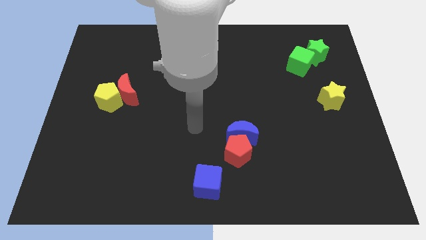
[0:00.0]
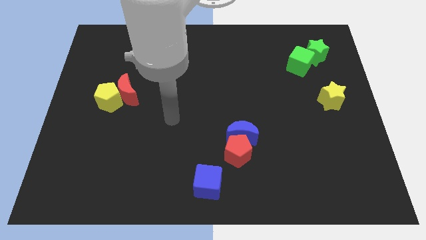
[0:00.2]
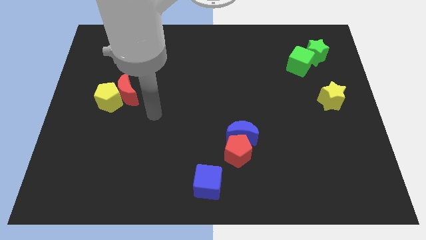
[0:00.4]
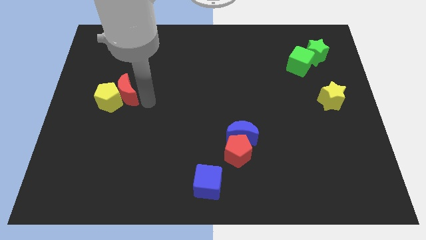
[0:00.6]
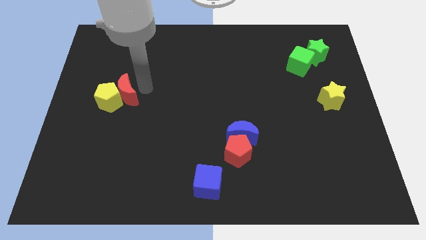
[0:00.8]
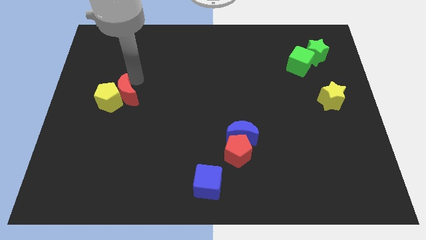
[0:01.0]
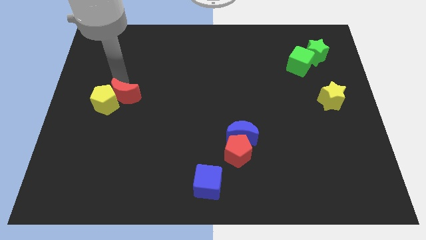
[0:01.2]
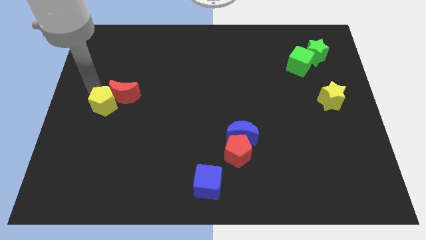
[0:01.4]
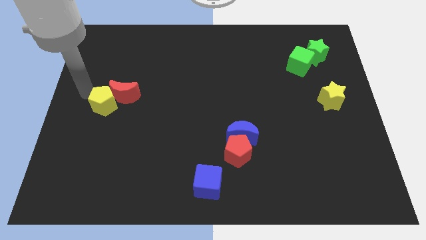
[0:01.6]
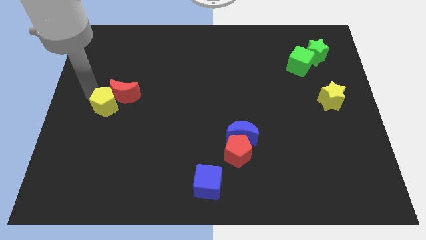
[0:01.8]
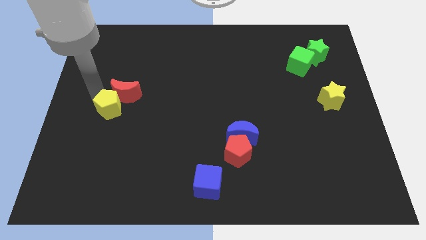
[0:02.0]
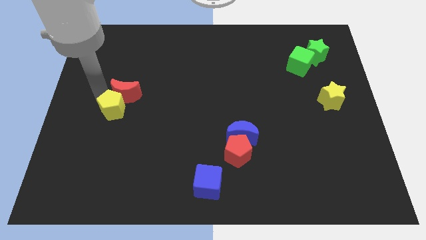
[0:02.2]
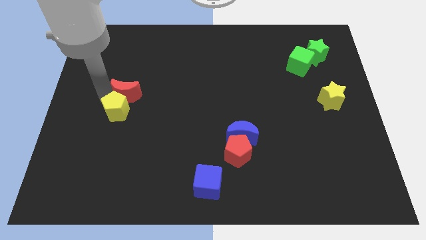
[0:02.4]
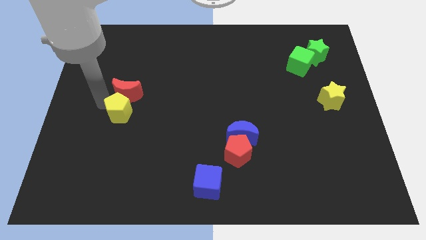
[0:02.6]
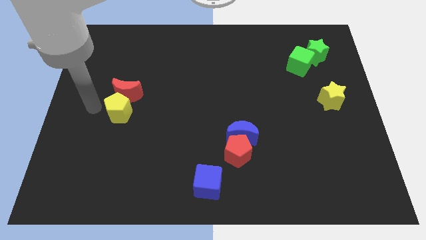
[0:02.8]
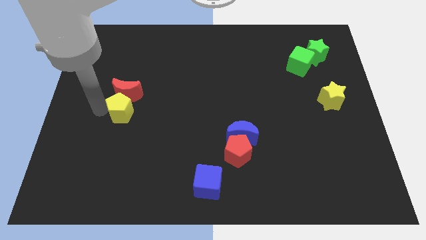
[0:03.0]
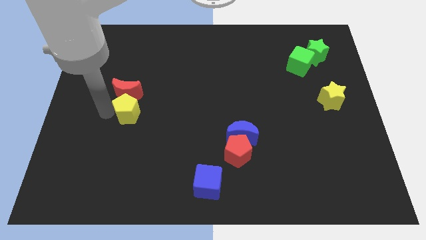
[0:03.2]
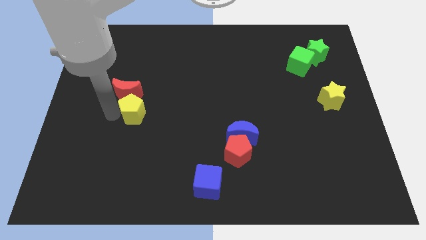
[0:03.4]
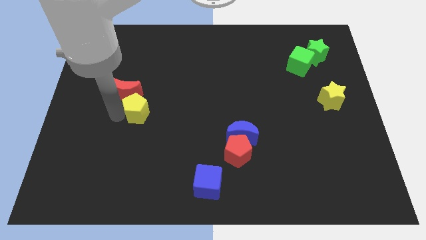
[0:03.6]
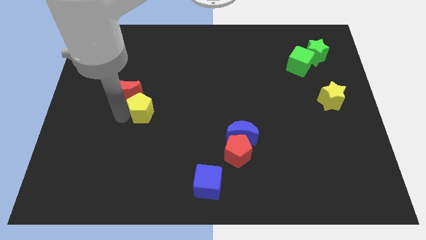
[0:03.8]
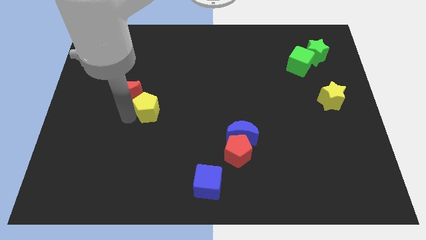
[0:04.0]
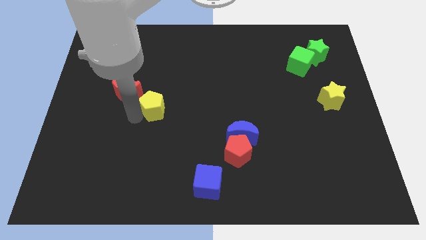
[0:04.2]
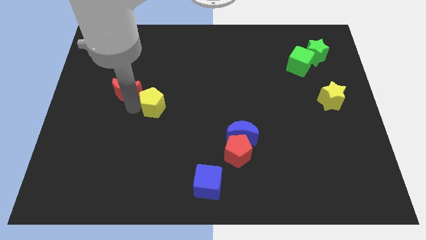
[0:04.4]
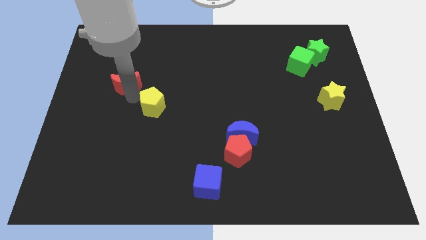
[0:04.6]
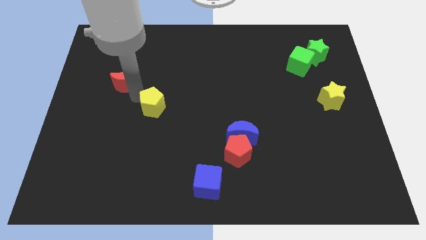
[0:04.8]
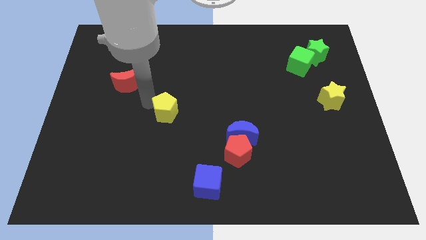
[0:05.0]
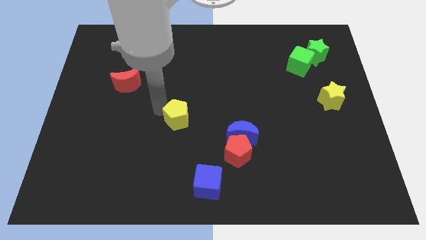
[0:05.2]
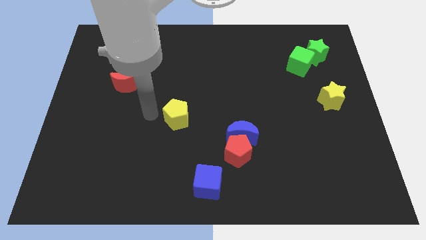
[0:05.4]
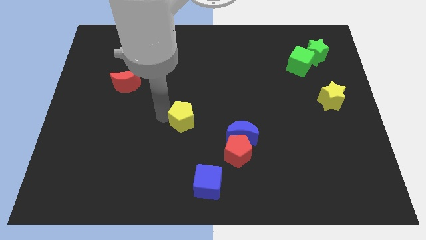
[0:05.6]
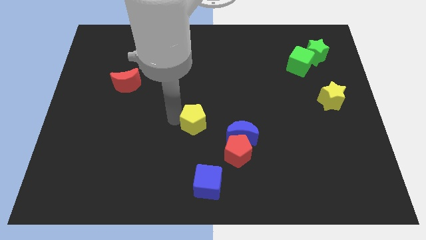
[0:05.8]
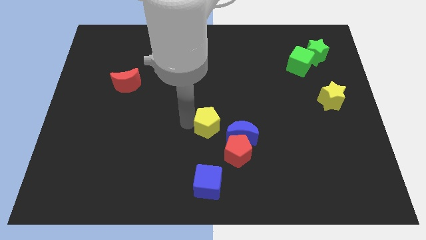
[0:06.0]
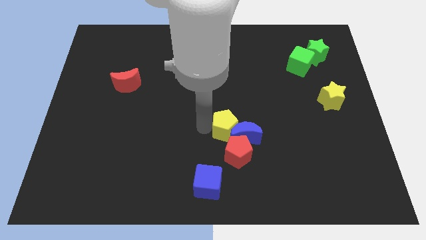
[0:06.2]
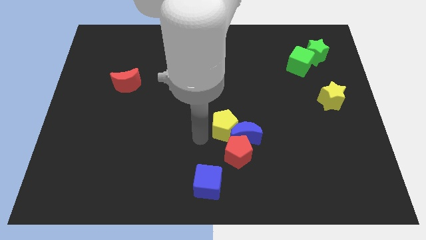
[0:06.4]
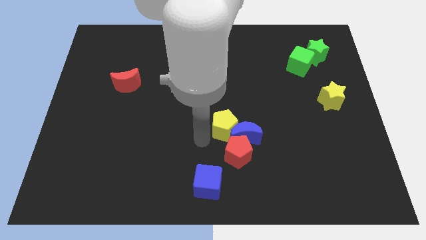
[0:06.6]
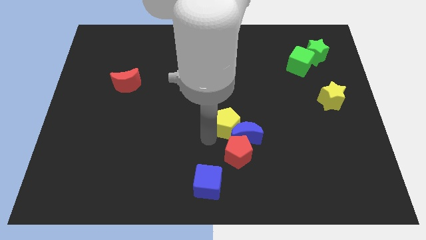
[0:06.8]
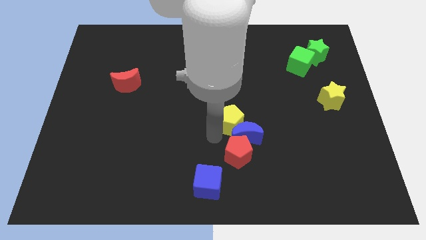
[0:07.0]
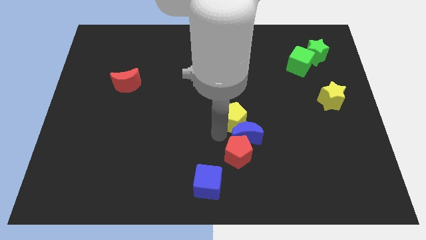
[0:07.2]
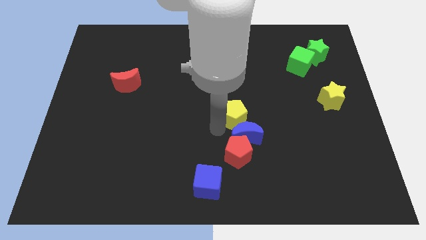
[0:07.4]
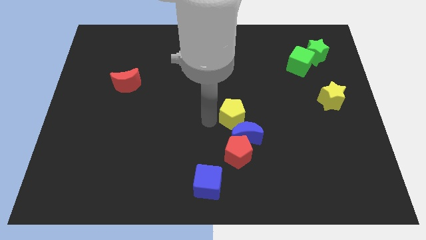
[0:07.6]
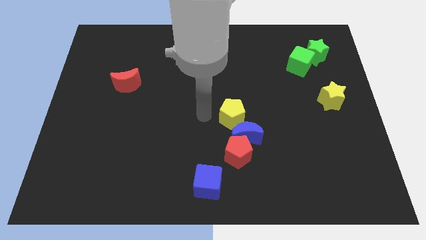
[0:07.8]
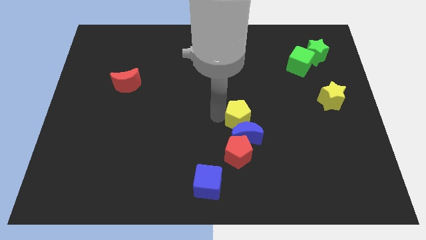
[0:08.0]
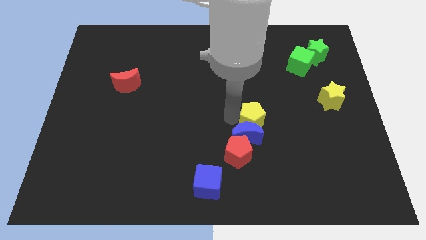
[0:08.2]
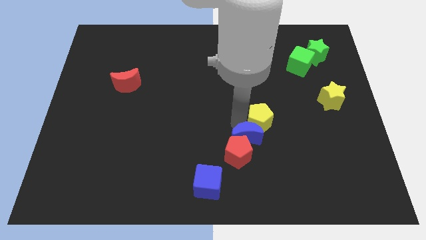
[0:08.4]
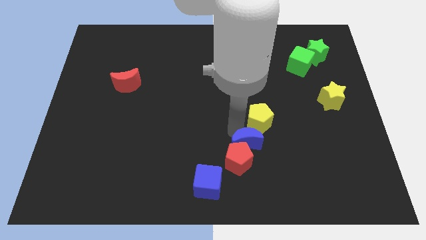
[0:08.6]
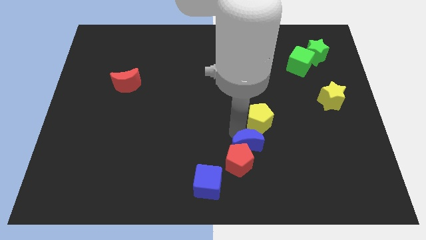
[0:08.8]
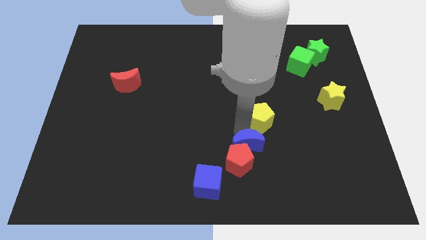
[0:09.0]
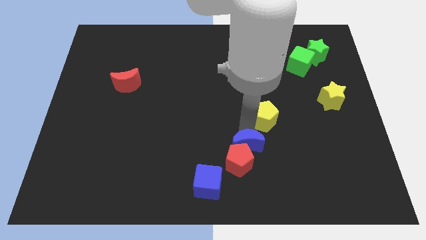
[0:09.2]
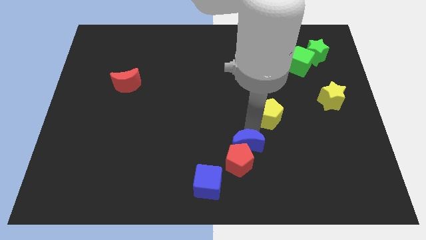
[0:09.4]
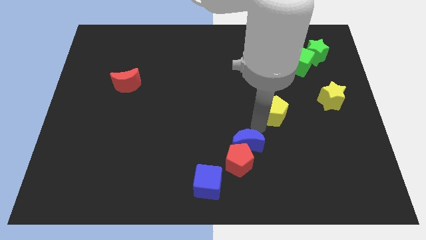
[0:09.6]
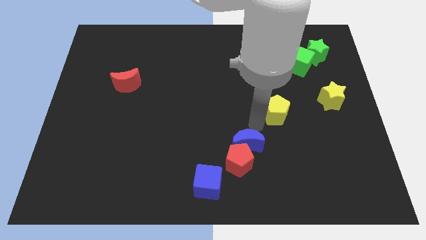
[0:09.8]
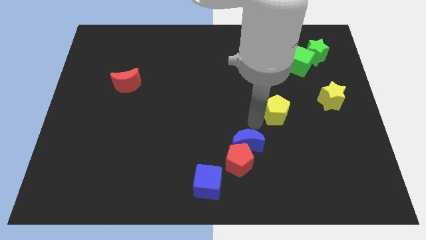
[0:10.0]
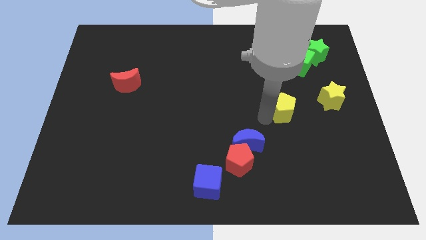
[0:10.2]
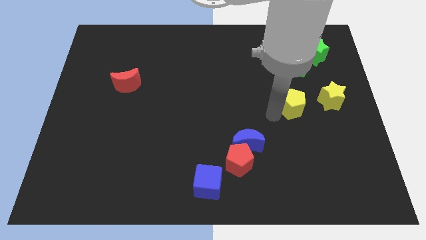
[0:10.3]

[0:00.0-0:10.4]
move the yellow pentagon to the bottom of the green cube
